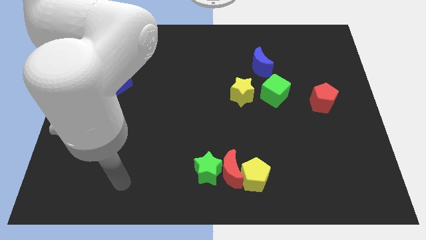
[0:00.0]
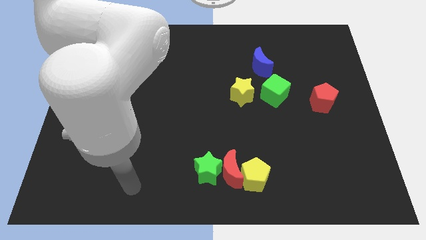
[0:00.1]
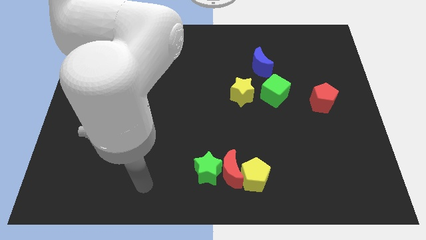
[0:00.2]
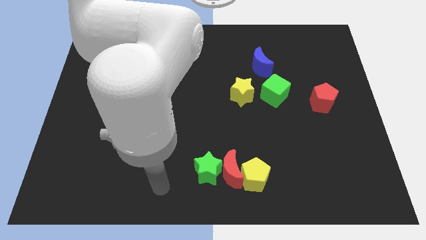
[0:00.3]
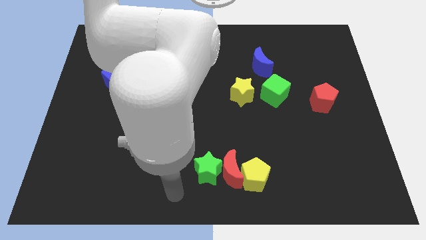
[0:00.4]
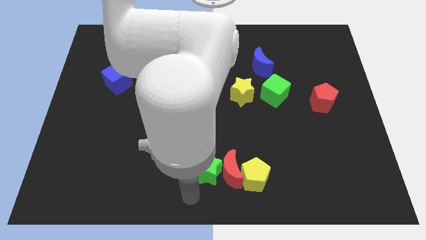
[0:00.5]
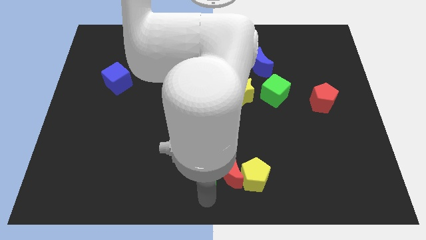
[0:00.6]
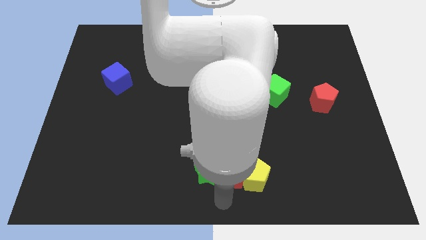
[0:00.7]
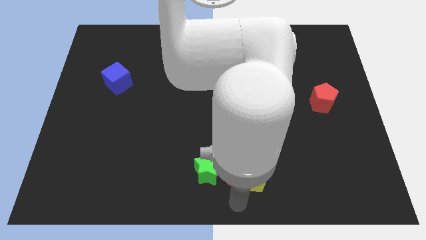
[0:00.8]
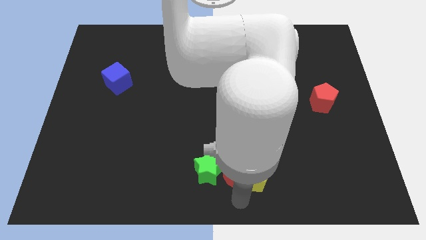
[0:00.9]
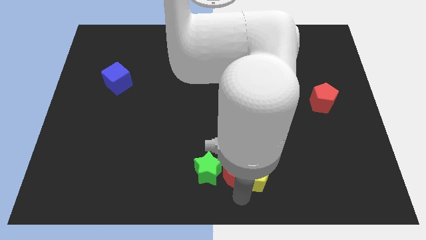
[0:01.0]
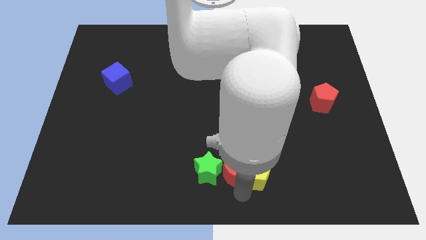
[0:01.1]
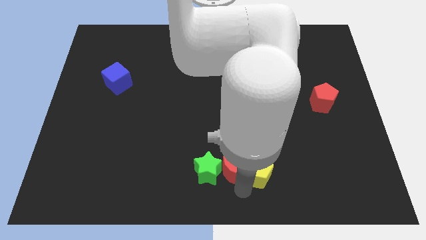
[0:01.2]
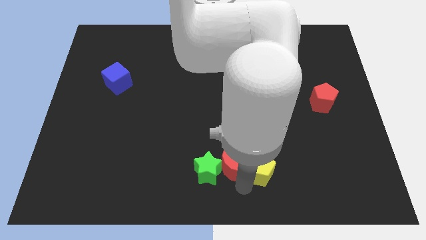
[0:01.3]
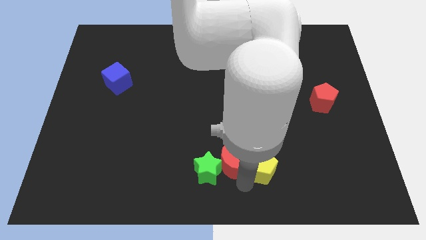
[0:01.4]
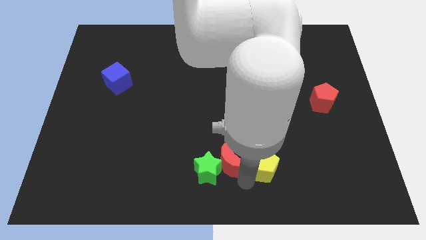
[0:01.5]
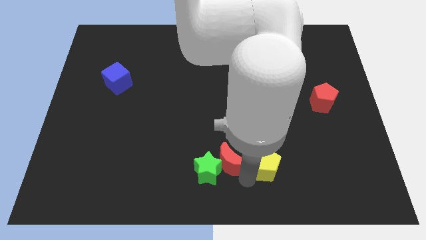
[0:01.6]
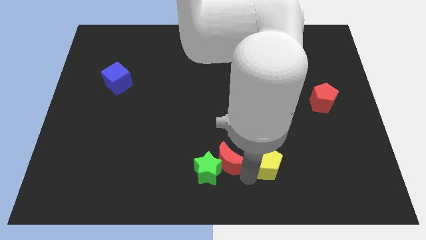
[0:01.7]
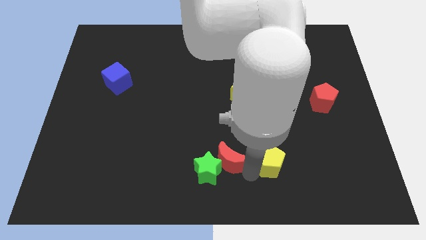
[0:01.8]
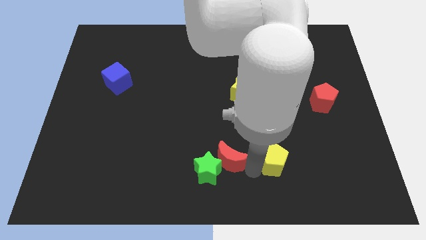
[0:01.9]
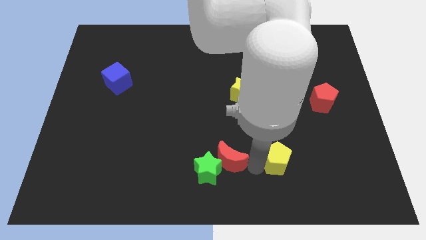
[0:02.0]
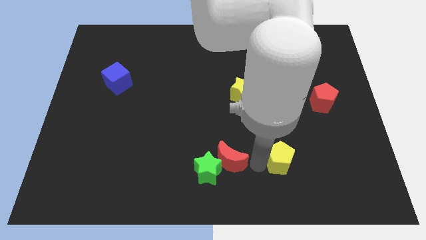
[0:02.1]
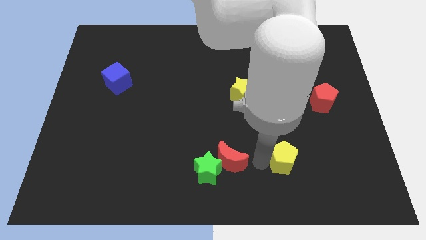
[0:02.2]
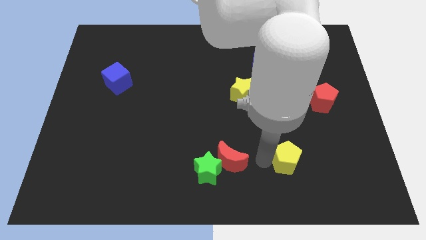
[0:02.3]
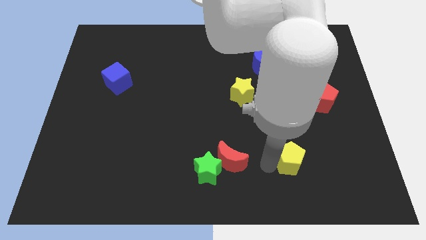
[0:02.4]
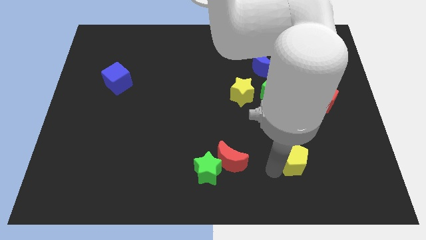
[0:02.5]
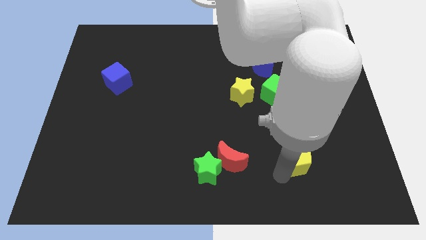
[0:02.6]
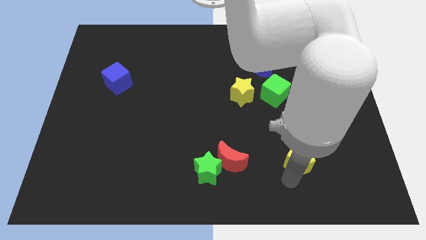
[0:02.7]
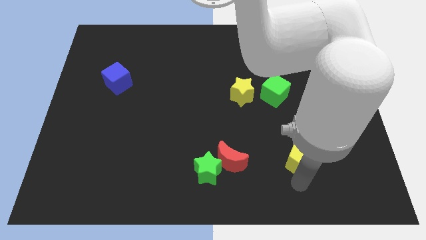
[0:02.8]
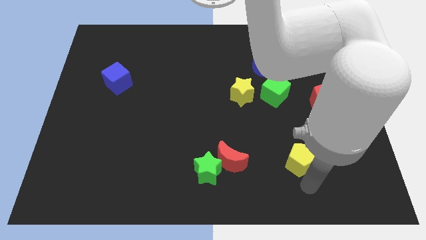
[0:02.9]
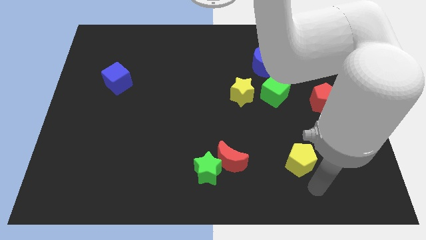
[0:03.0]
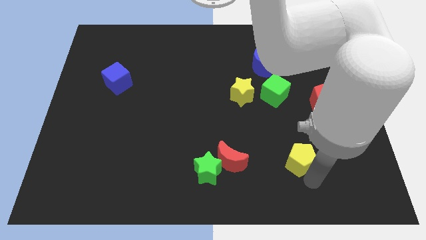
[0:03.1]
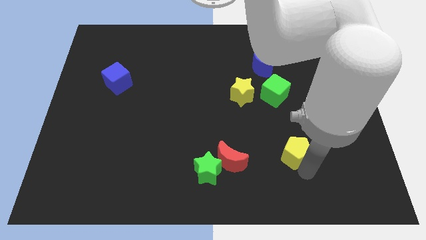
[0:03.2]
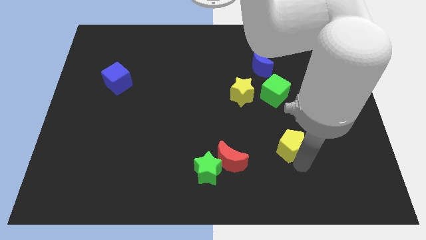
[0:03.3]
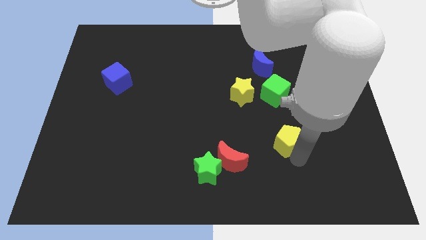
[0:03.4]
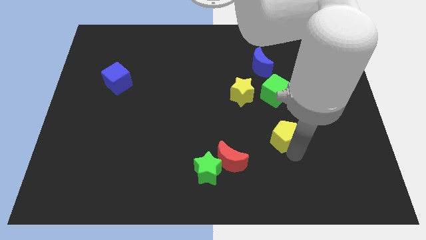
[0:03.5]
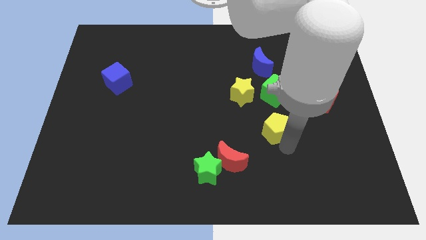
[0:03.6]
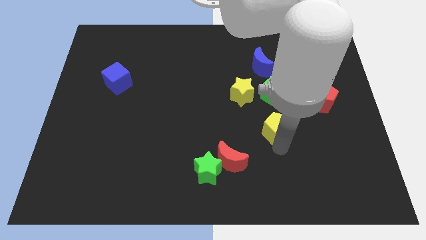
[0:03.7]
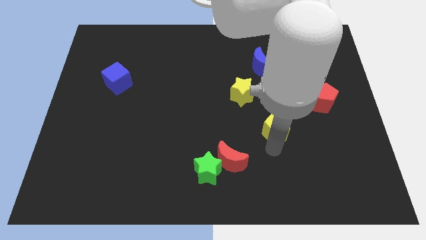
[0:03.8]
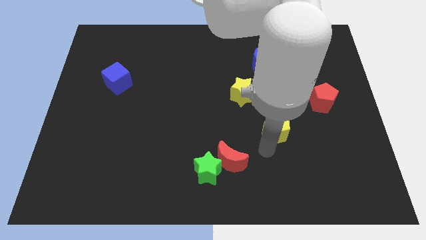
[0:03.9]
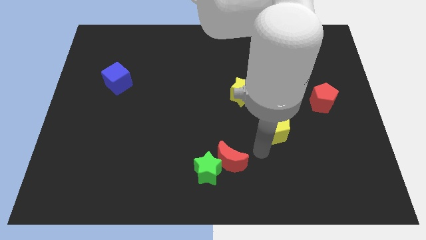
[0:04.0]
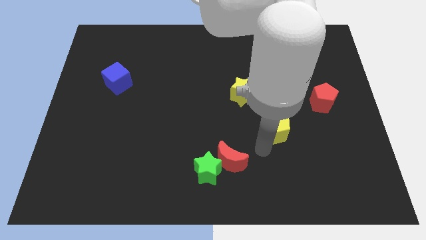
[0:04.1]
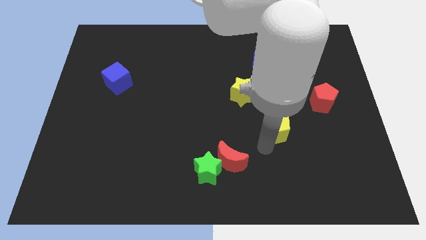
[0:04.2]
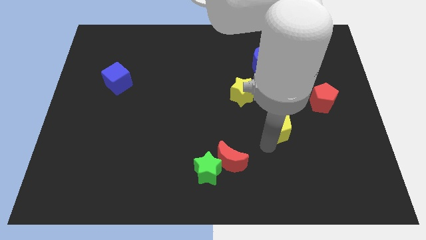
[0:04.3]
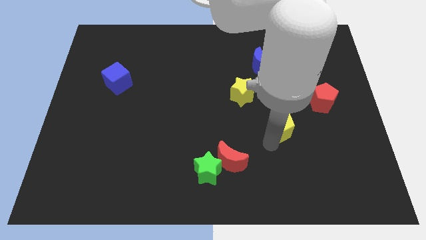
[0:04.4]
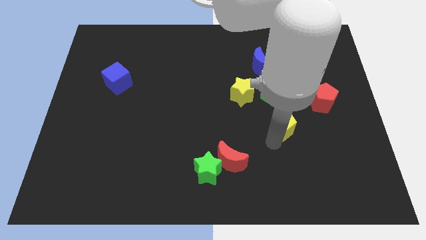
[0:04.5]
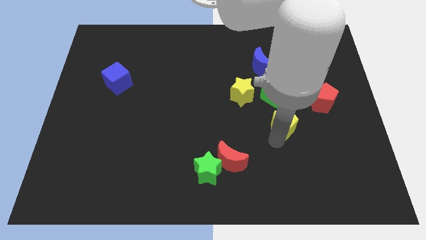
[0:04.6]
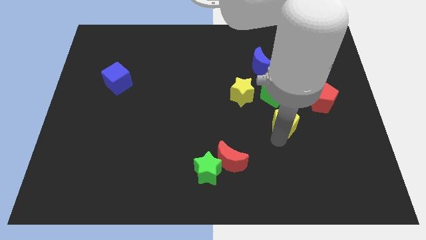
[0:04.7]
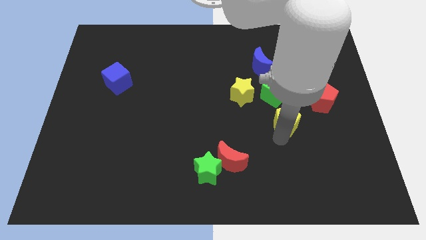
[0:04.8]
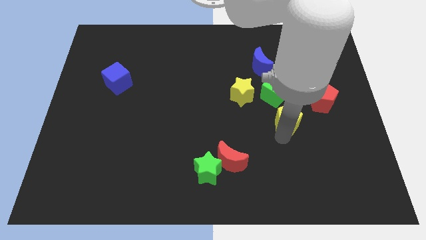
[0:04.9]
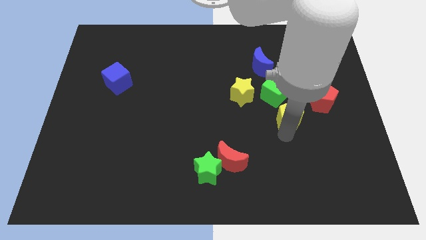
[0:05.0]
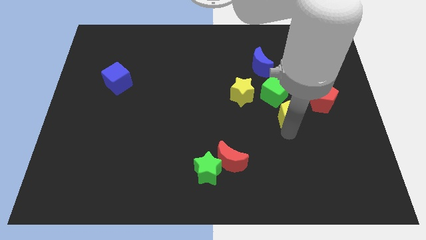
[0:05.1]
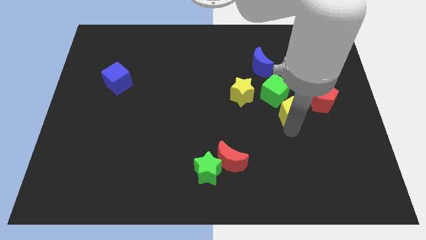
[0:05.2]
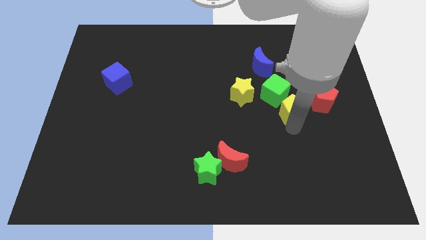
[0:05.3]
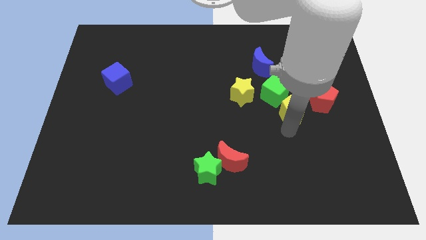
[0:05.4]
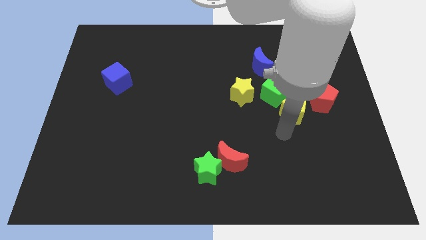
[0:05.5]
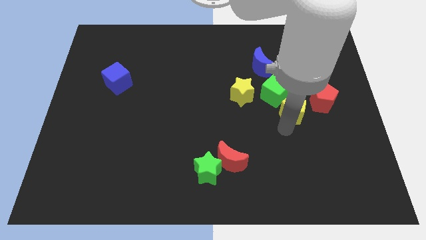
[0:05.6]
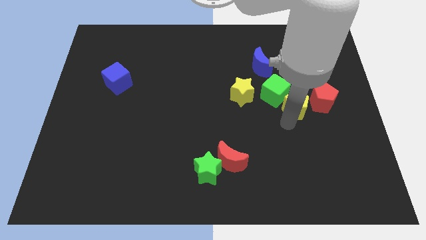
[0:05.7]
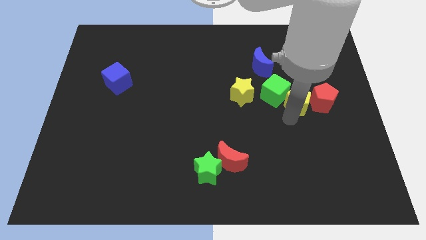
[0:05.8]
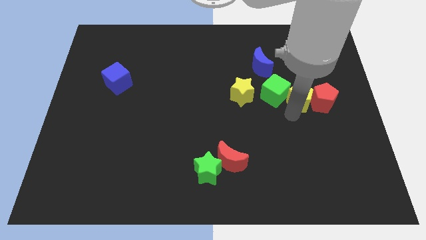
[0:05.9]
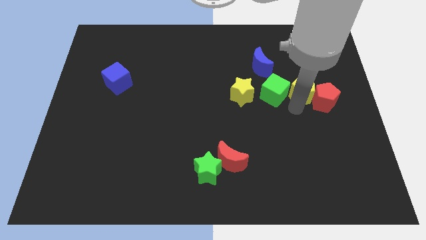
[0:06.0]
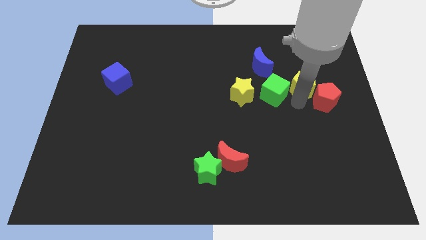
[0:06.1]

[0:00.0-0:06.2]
slide the yellow pentagon to the top of the red pentagon
